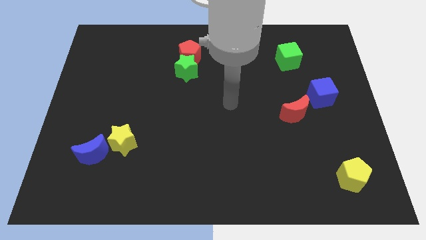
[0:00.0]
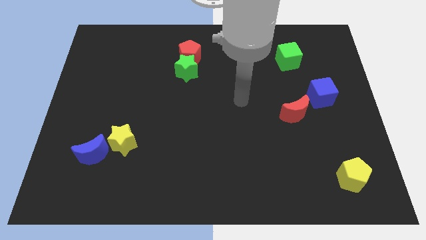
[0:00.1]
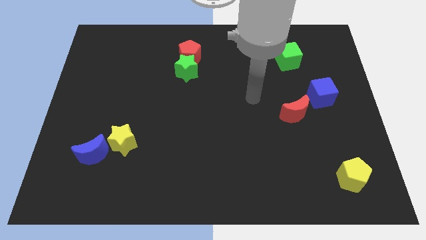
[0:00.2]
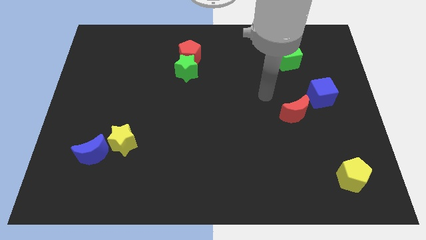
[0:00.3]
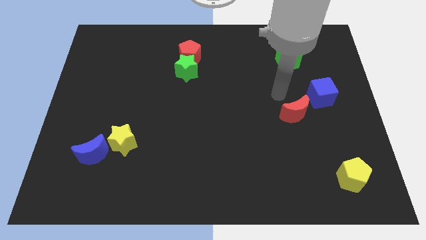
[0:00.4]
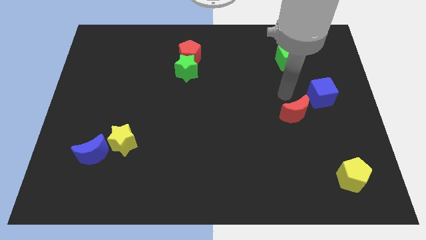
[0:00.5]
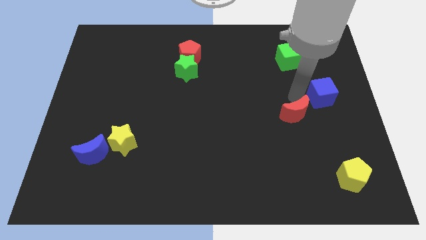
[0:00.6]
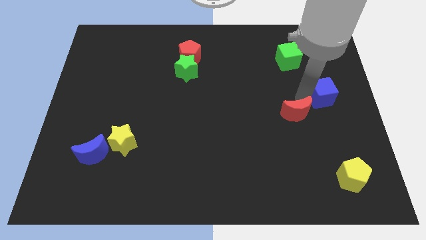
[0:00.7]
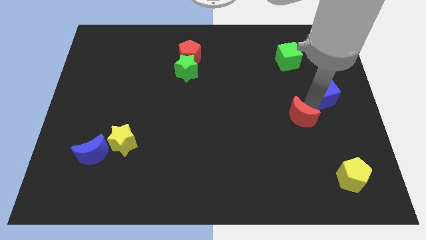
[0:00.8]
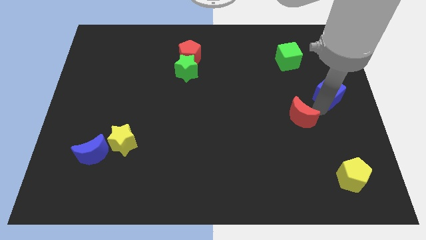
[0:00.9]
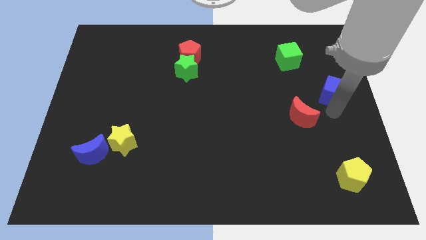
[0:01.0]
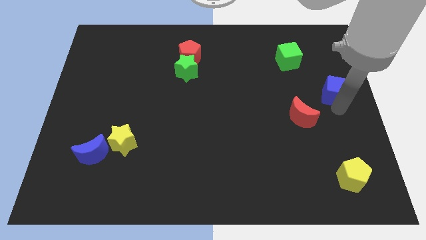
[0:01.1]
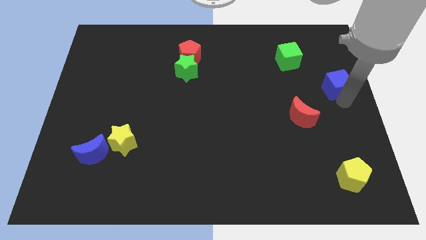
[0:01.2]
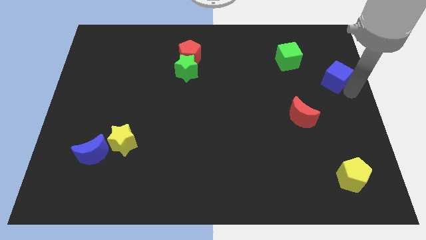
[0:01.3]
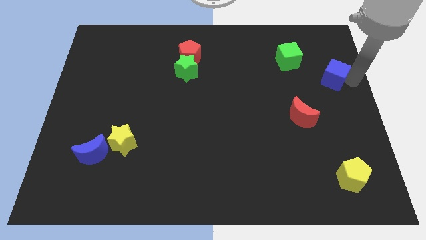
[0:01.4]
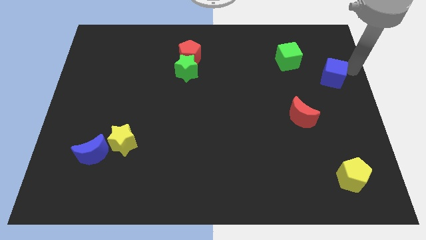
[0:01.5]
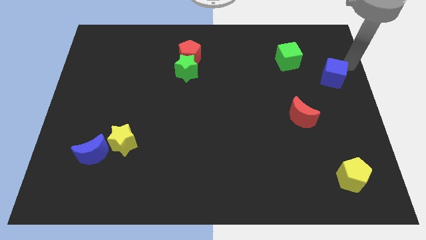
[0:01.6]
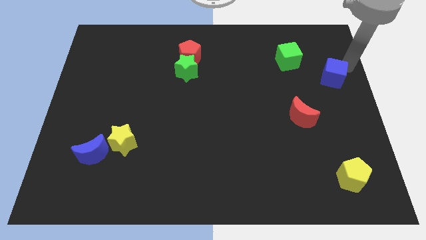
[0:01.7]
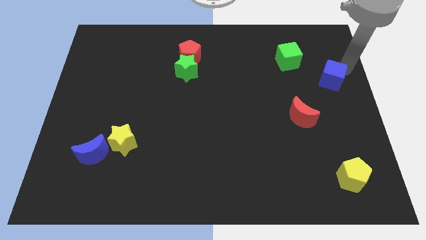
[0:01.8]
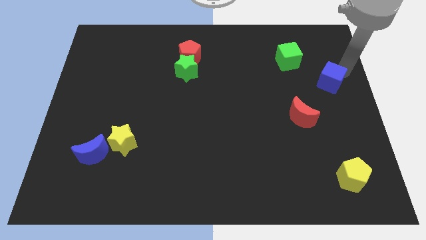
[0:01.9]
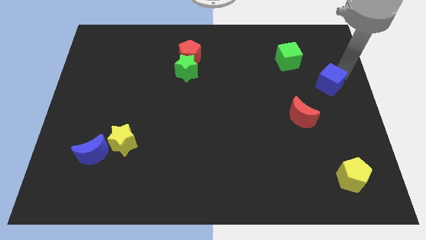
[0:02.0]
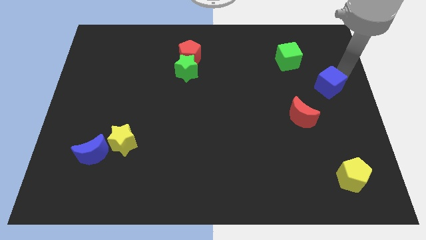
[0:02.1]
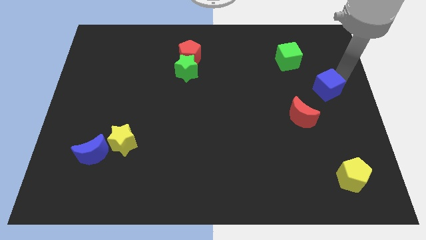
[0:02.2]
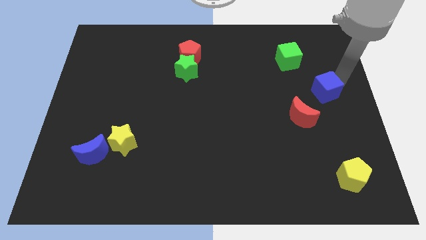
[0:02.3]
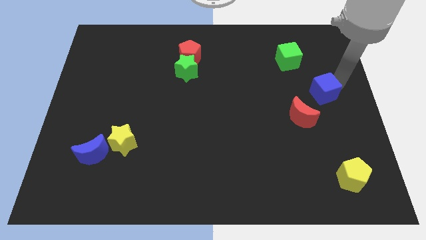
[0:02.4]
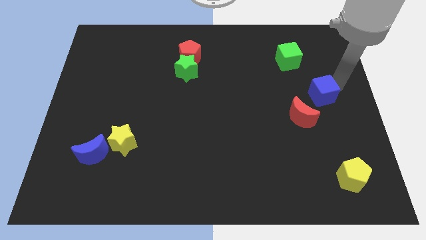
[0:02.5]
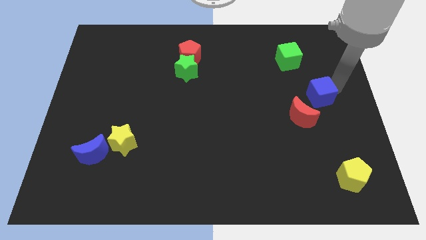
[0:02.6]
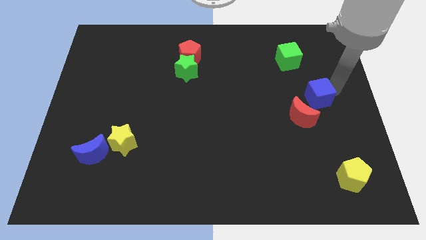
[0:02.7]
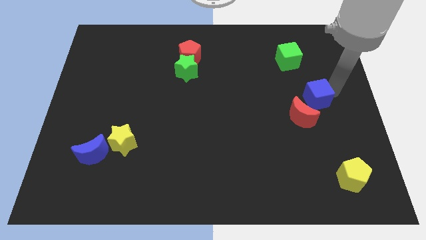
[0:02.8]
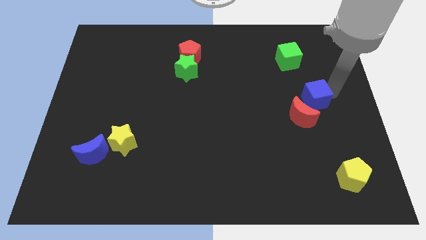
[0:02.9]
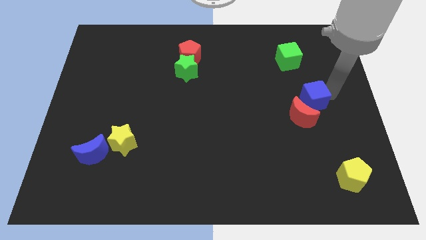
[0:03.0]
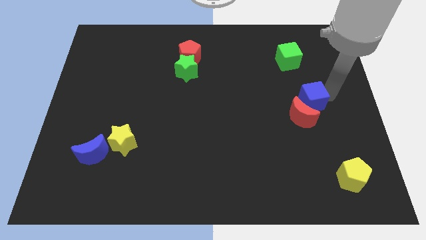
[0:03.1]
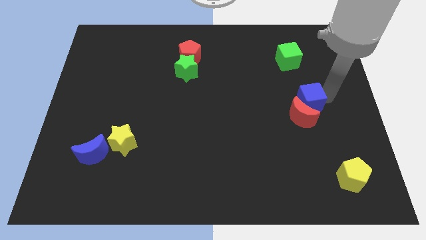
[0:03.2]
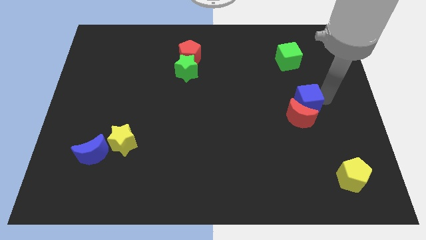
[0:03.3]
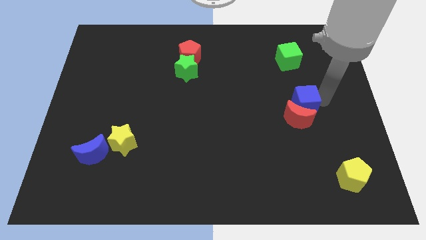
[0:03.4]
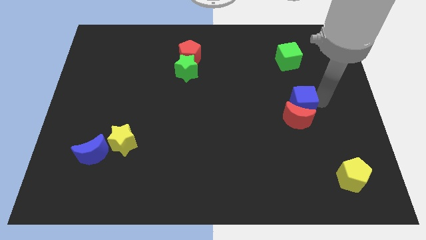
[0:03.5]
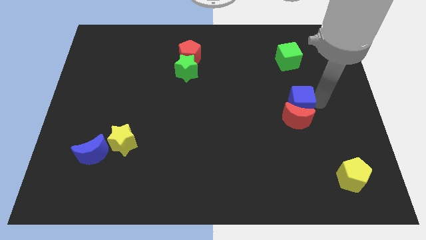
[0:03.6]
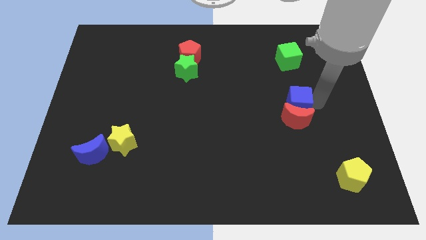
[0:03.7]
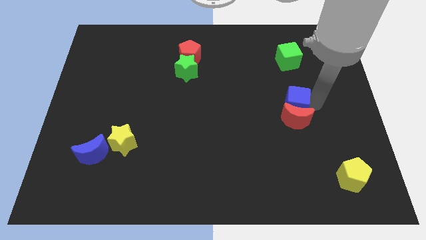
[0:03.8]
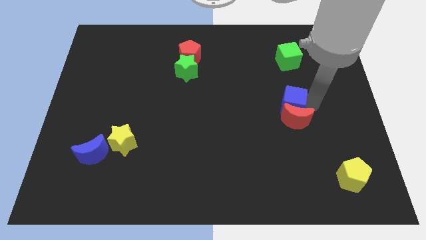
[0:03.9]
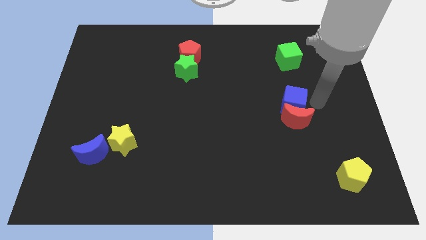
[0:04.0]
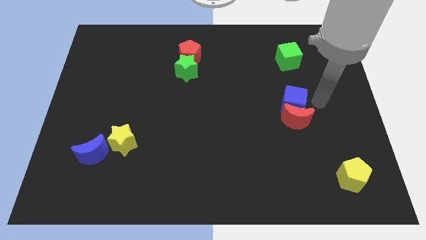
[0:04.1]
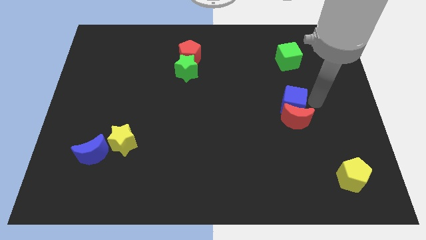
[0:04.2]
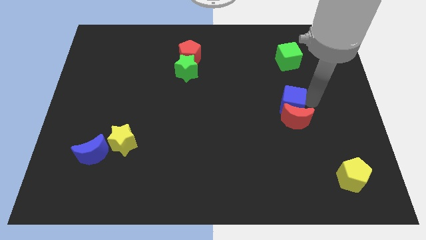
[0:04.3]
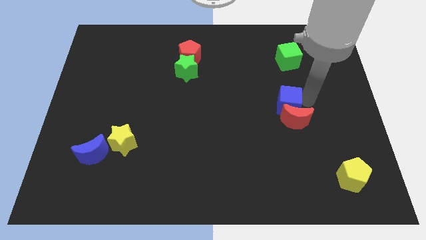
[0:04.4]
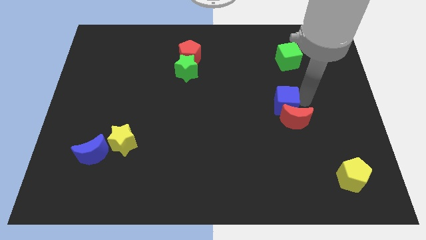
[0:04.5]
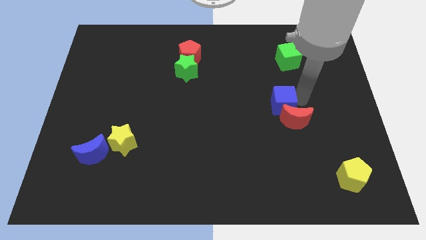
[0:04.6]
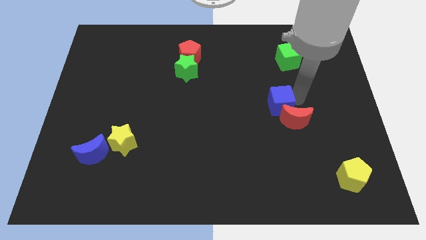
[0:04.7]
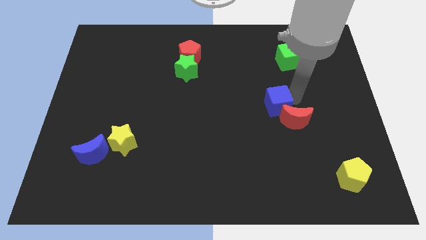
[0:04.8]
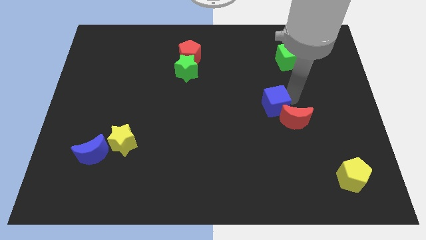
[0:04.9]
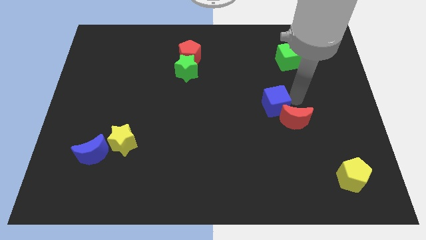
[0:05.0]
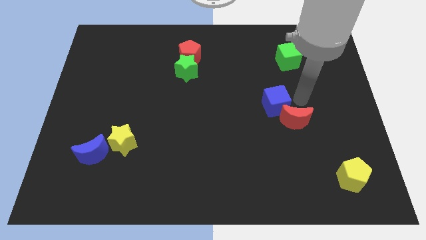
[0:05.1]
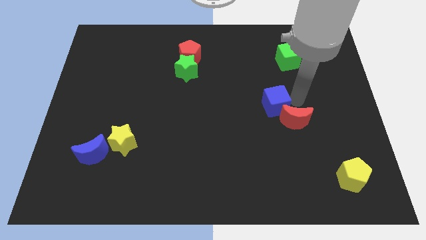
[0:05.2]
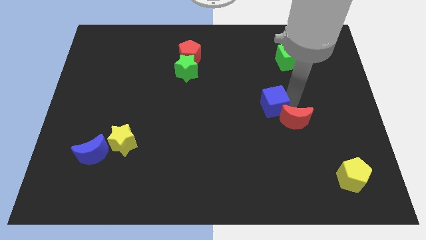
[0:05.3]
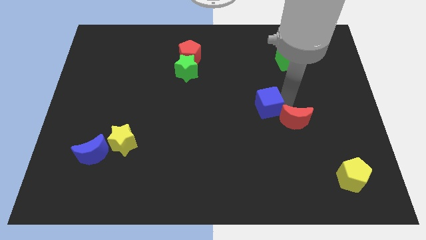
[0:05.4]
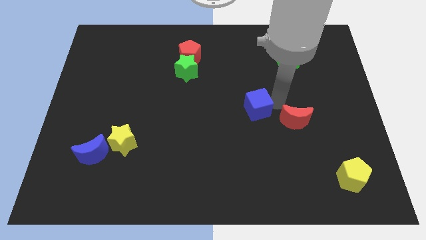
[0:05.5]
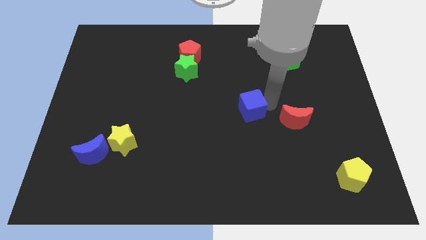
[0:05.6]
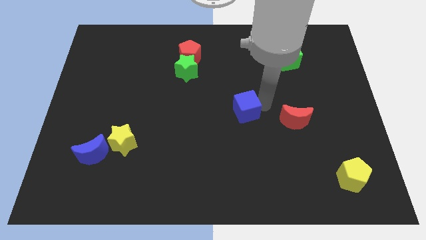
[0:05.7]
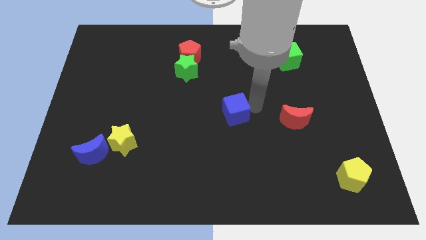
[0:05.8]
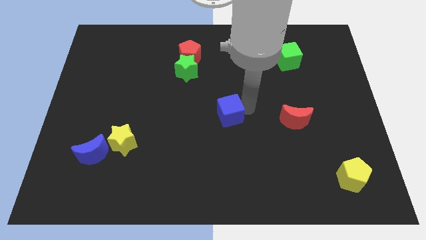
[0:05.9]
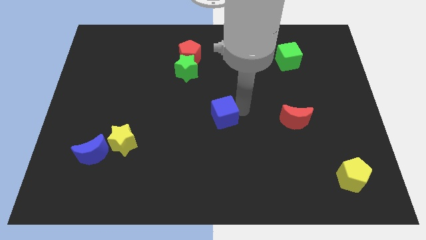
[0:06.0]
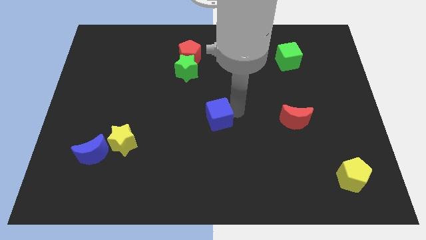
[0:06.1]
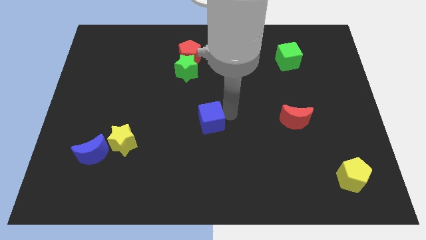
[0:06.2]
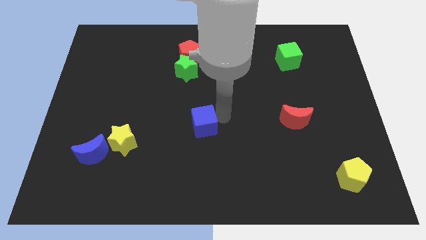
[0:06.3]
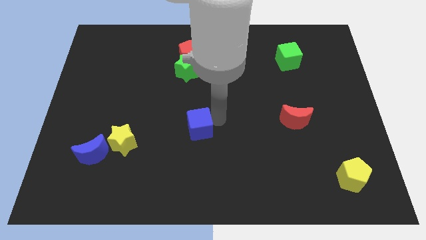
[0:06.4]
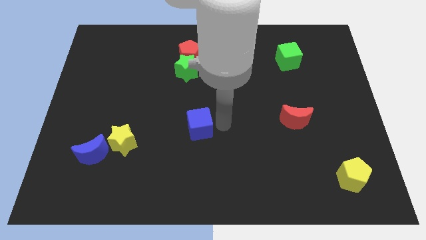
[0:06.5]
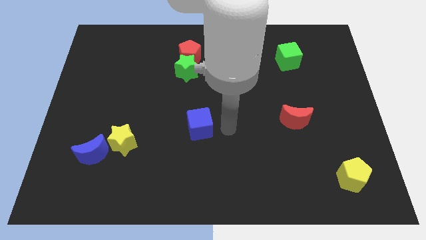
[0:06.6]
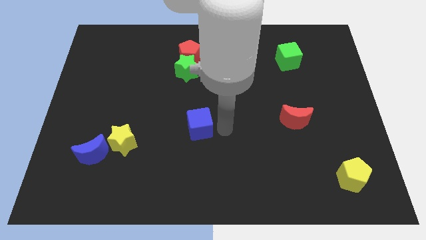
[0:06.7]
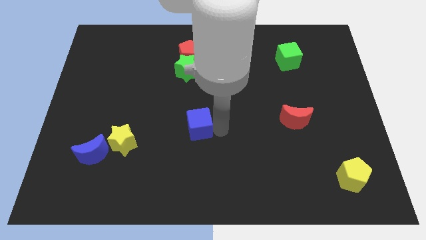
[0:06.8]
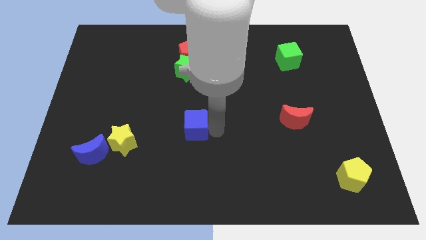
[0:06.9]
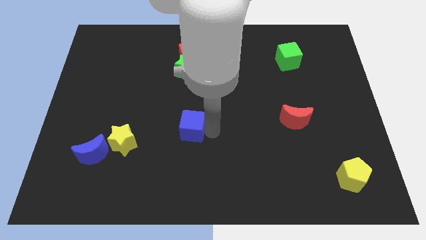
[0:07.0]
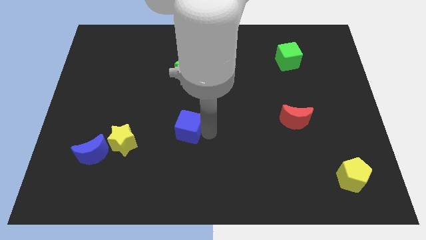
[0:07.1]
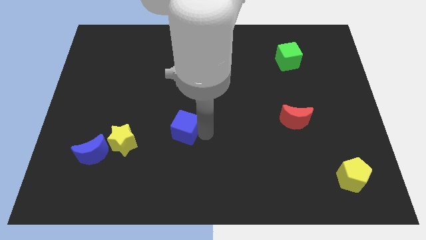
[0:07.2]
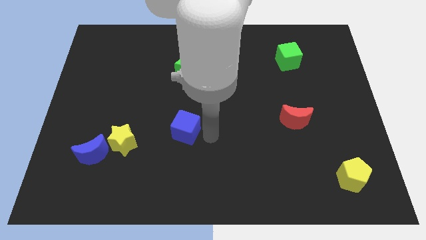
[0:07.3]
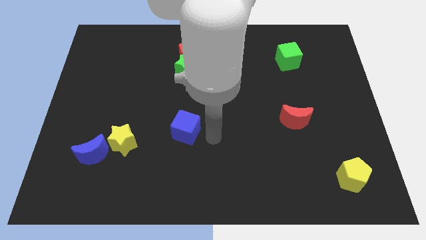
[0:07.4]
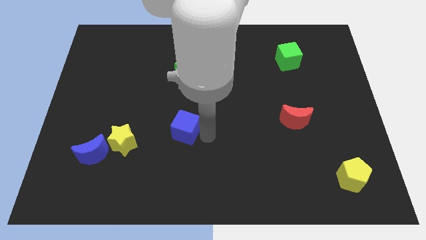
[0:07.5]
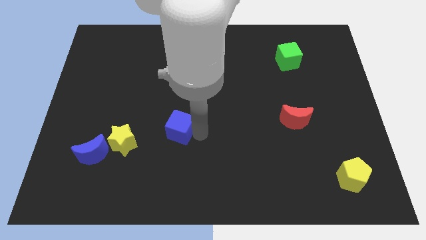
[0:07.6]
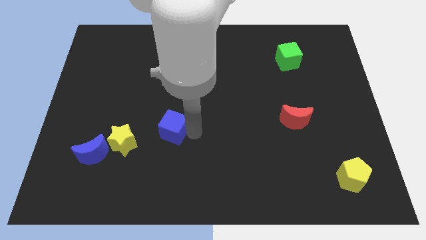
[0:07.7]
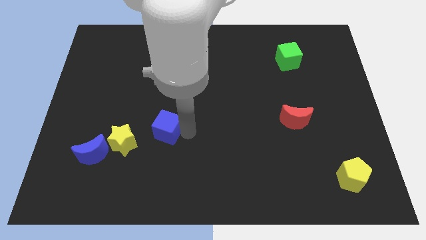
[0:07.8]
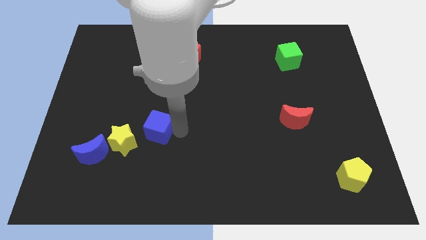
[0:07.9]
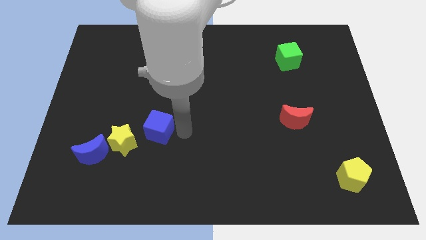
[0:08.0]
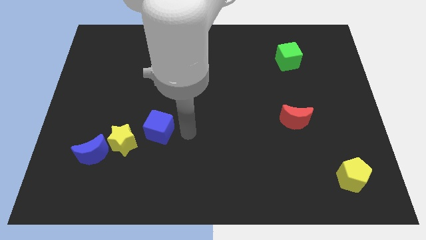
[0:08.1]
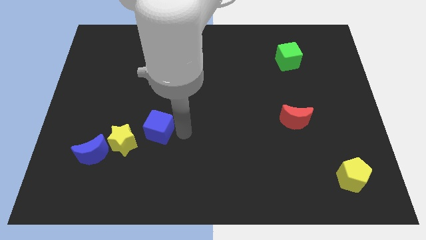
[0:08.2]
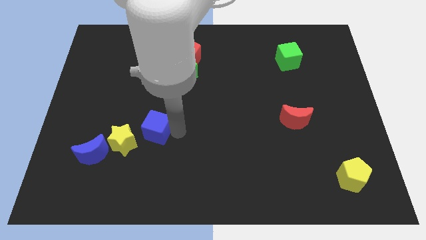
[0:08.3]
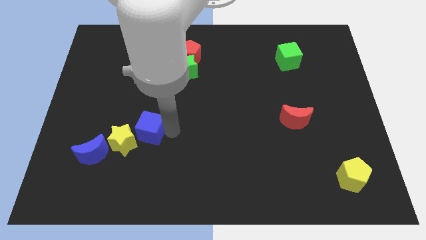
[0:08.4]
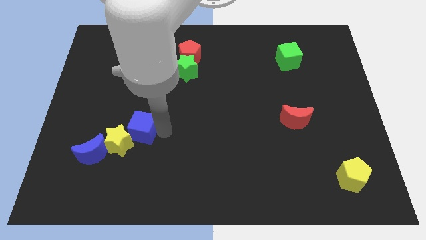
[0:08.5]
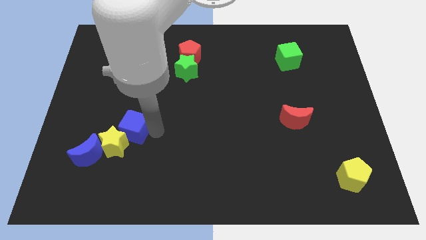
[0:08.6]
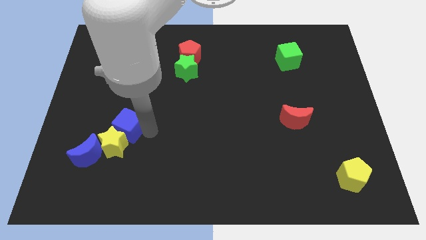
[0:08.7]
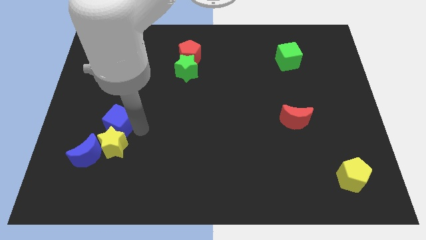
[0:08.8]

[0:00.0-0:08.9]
slide the blue cube to the top left of the yellow star
